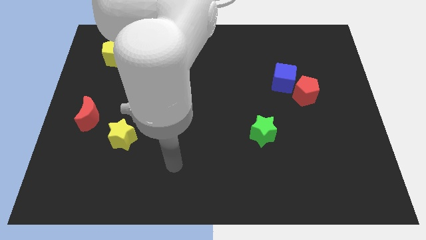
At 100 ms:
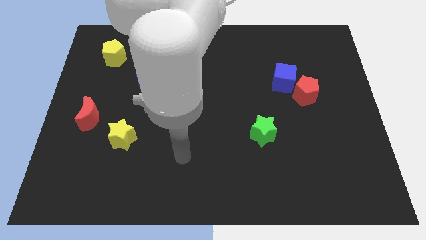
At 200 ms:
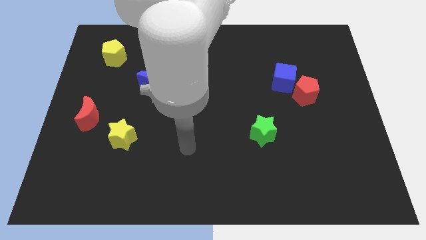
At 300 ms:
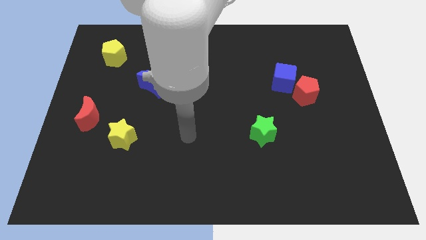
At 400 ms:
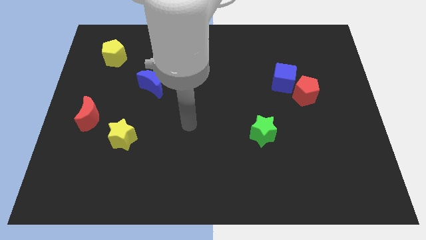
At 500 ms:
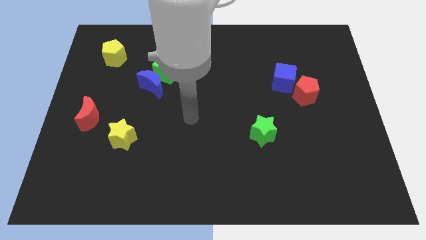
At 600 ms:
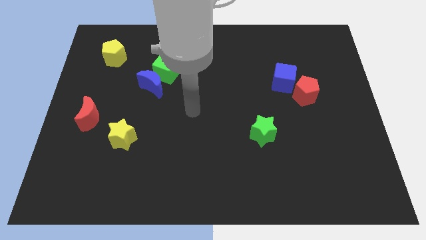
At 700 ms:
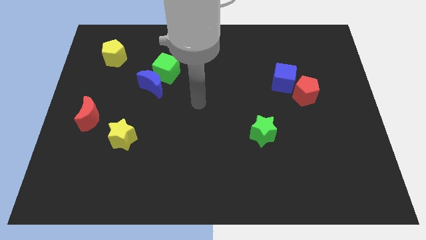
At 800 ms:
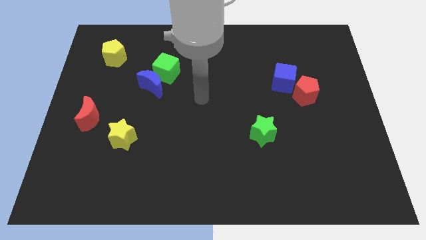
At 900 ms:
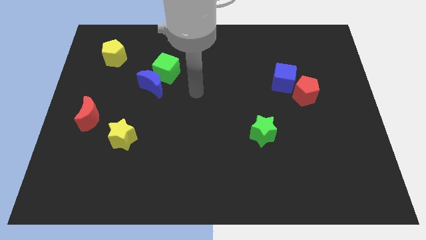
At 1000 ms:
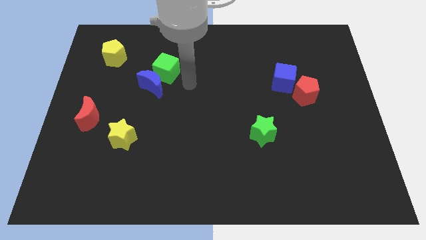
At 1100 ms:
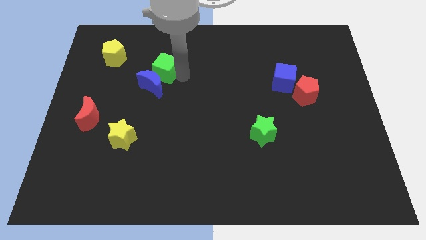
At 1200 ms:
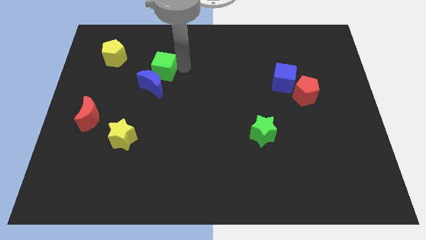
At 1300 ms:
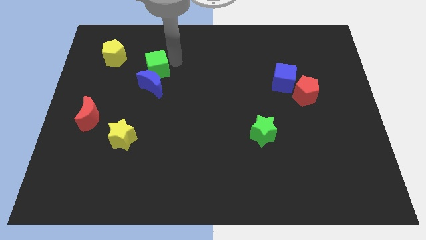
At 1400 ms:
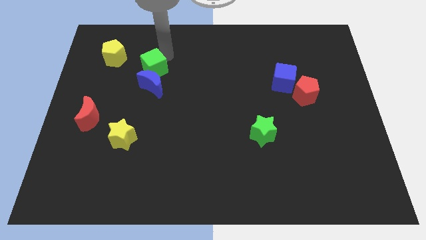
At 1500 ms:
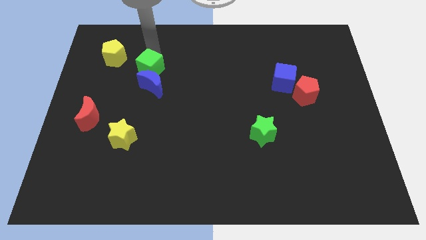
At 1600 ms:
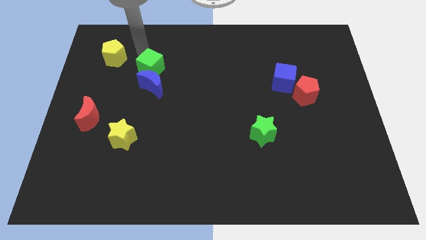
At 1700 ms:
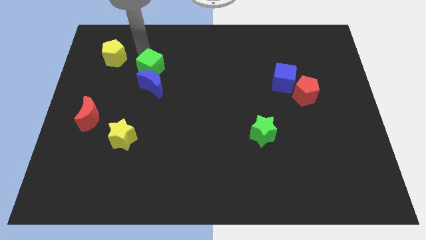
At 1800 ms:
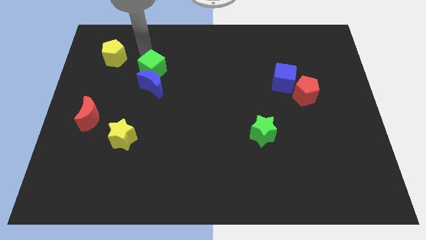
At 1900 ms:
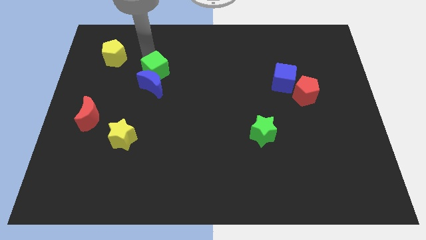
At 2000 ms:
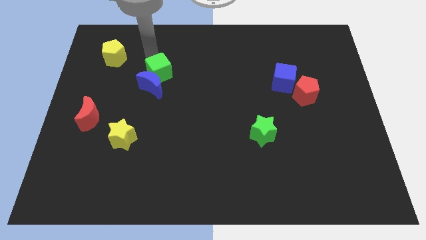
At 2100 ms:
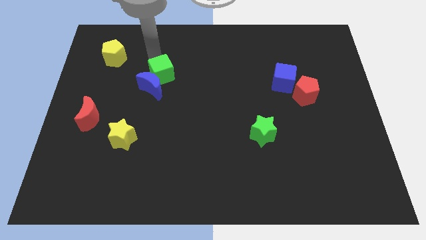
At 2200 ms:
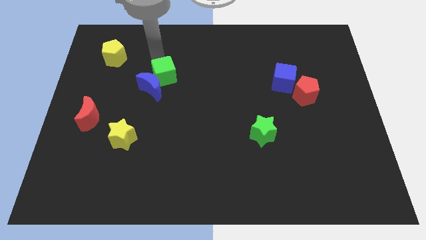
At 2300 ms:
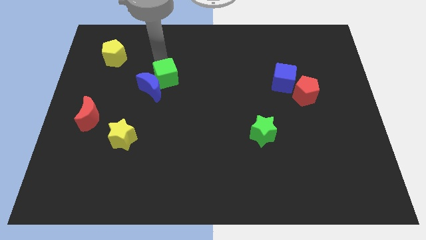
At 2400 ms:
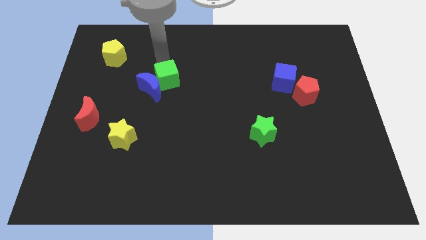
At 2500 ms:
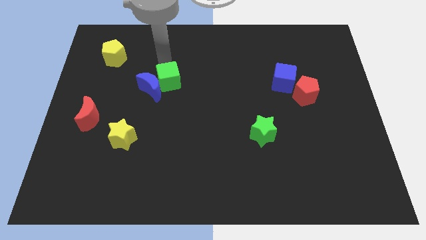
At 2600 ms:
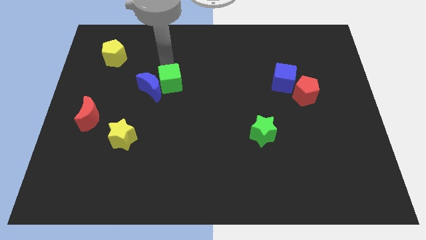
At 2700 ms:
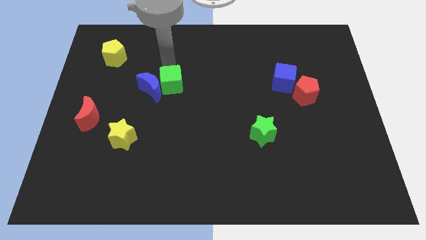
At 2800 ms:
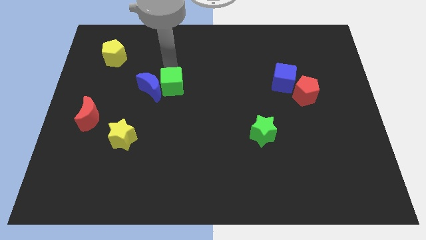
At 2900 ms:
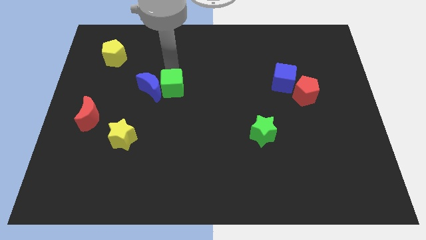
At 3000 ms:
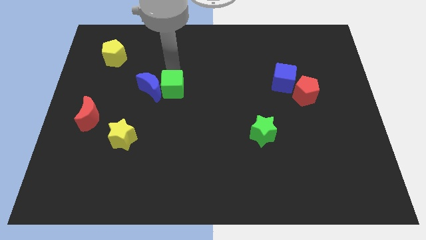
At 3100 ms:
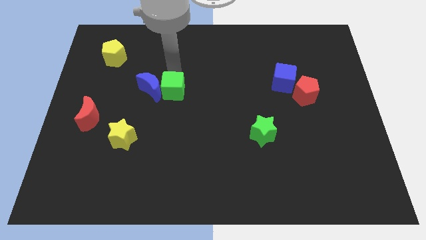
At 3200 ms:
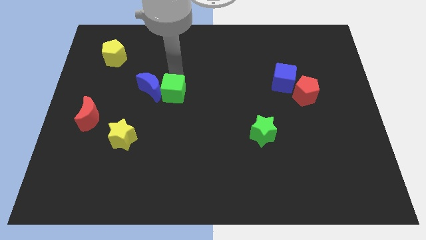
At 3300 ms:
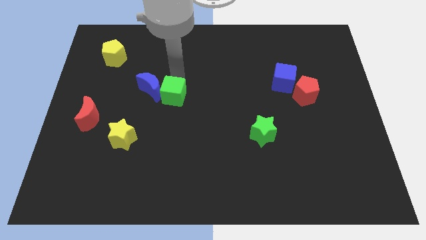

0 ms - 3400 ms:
push the green cube down somewhat

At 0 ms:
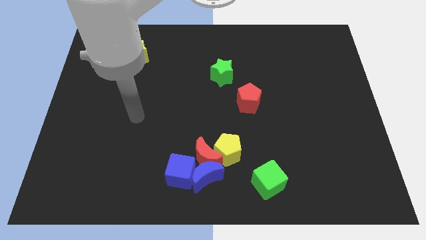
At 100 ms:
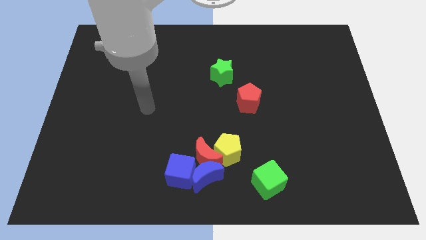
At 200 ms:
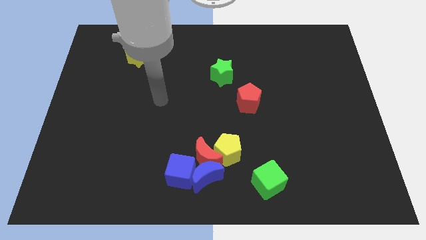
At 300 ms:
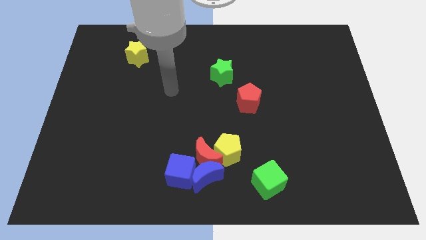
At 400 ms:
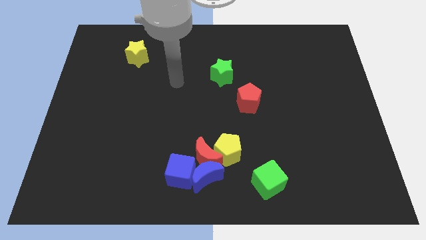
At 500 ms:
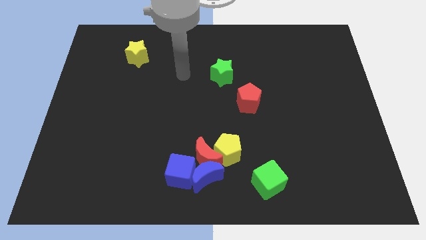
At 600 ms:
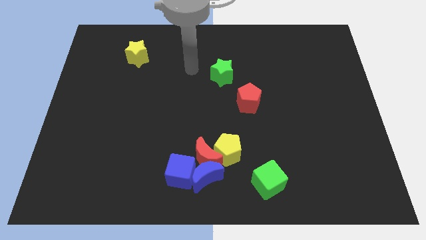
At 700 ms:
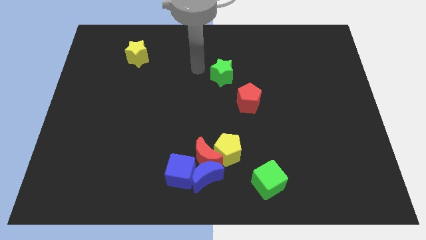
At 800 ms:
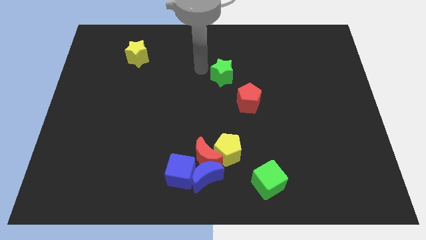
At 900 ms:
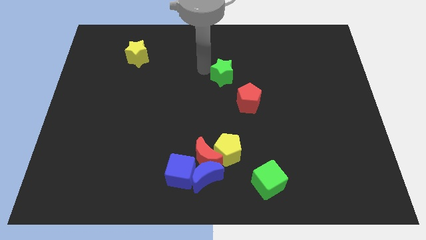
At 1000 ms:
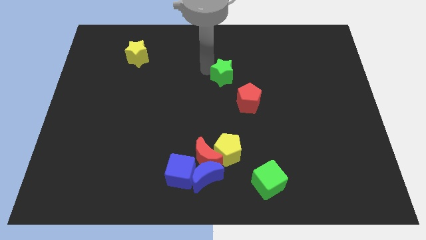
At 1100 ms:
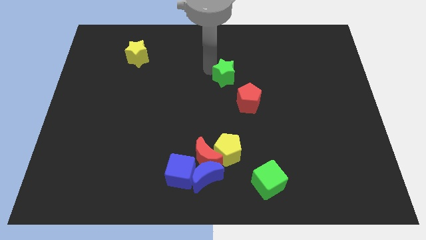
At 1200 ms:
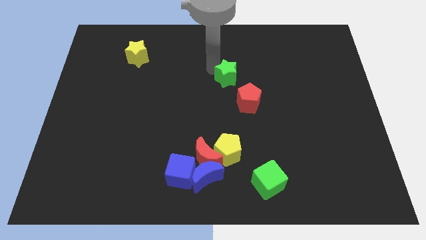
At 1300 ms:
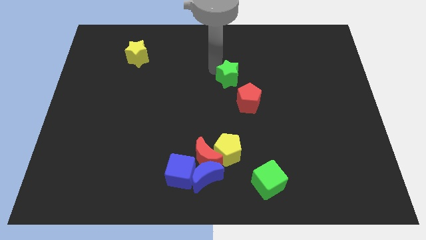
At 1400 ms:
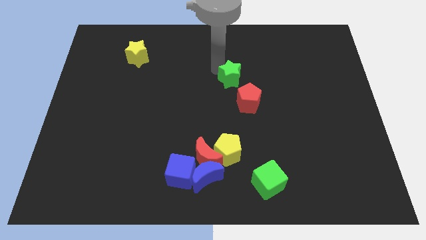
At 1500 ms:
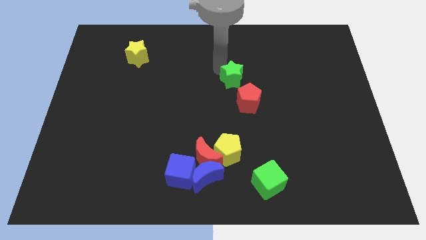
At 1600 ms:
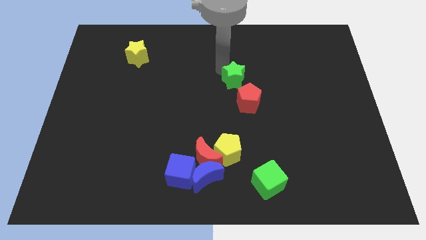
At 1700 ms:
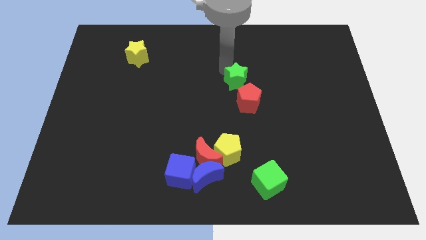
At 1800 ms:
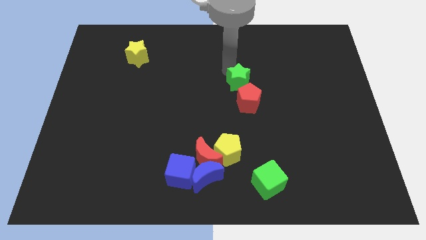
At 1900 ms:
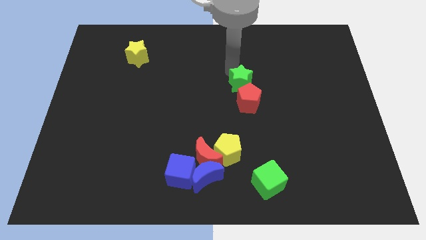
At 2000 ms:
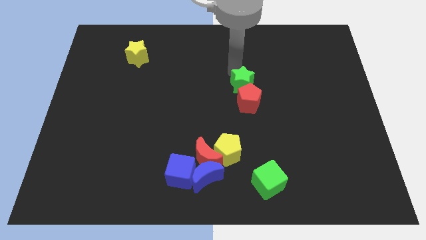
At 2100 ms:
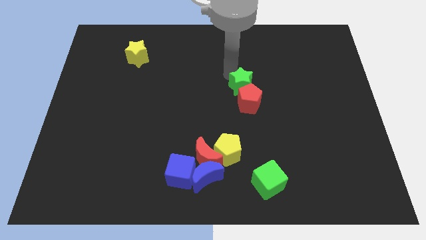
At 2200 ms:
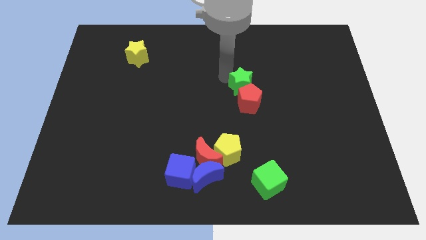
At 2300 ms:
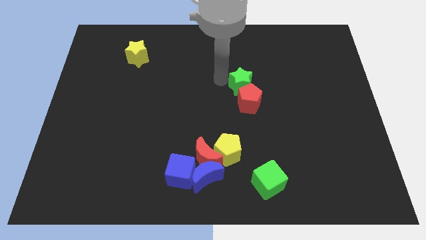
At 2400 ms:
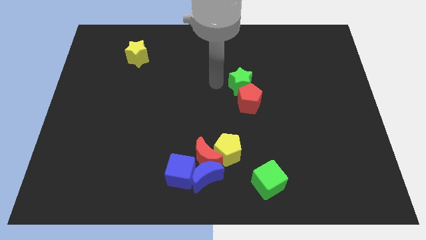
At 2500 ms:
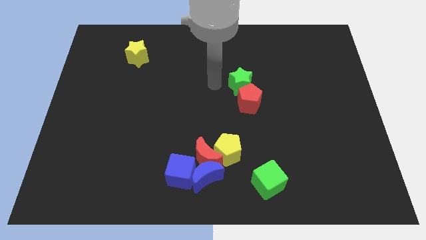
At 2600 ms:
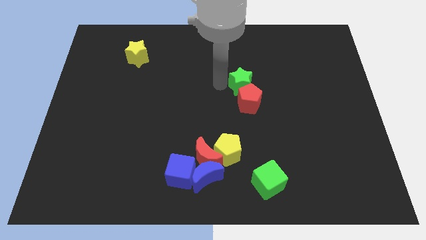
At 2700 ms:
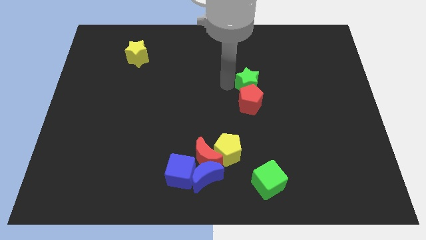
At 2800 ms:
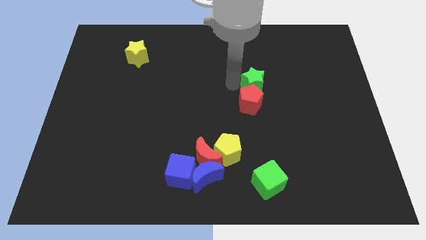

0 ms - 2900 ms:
push the green star a little diagonally down and right

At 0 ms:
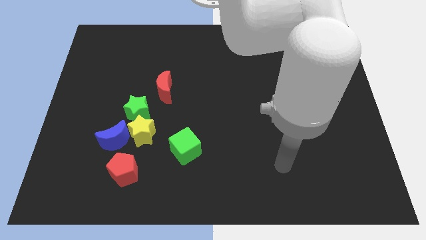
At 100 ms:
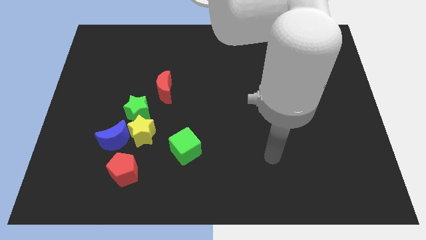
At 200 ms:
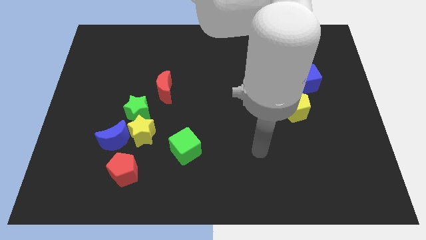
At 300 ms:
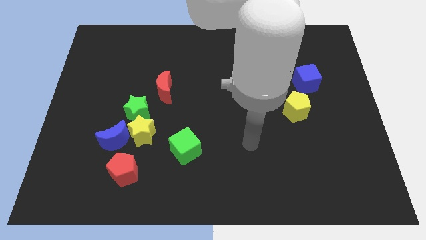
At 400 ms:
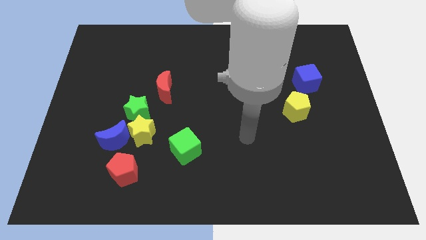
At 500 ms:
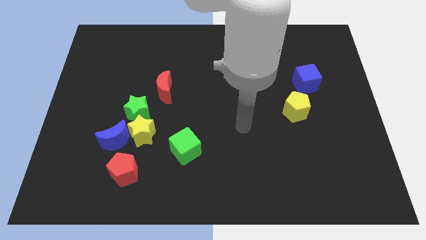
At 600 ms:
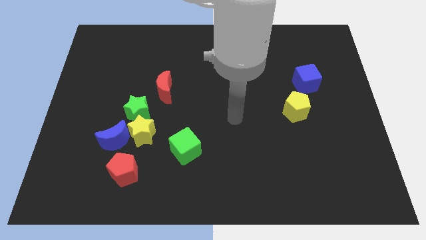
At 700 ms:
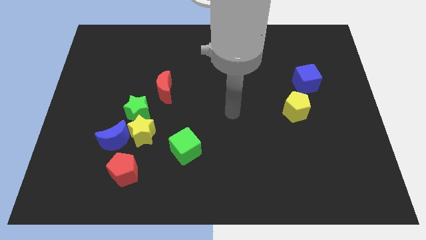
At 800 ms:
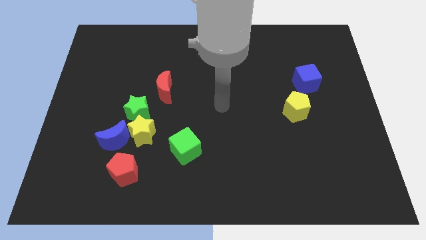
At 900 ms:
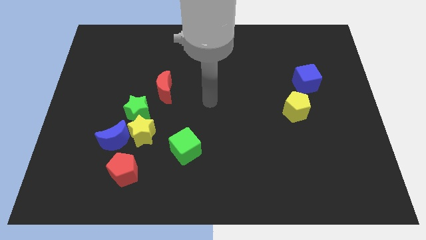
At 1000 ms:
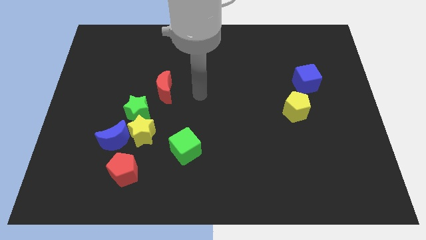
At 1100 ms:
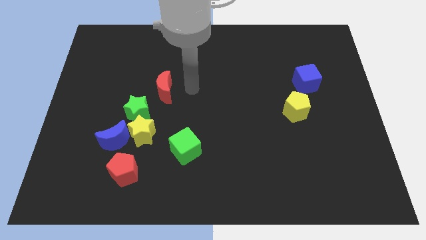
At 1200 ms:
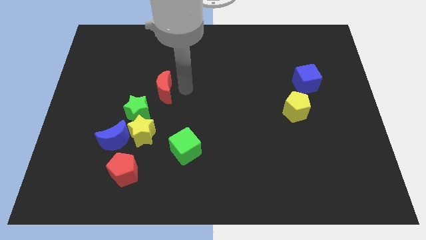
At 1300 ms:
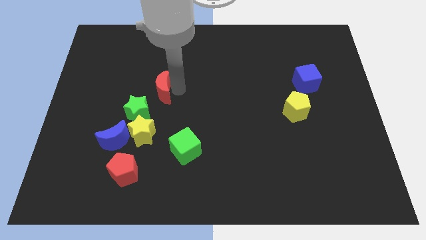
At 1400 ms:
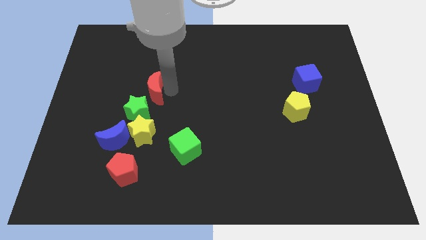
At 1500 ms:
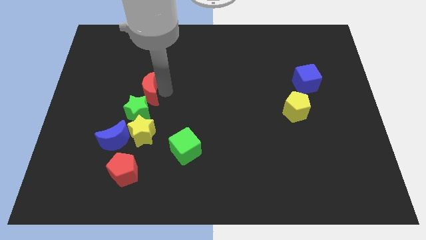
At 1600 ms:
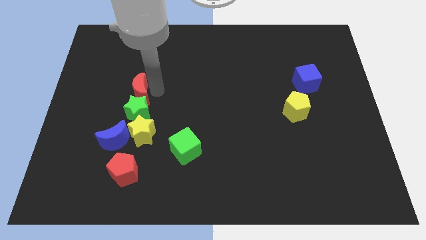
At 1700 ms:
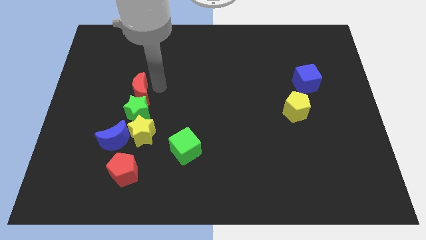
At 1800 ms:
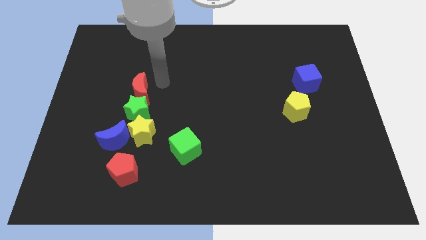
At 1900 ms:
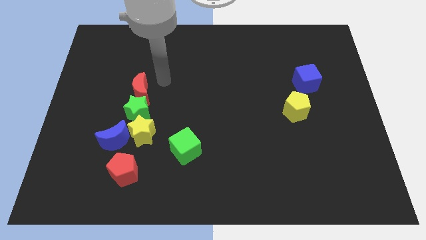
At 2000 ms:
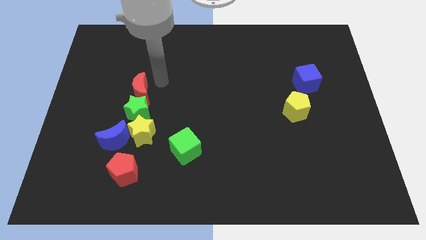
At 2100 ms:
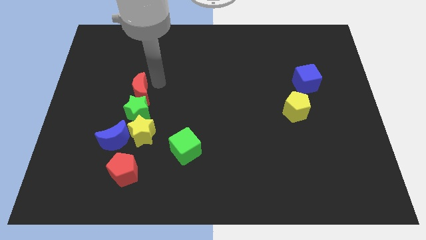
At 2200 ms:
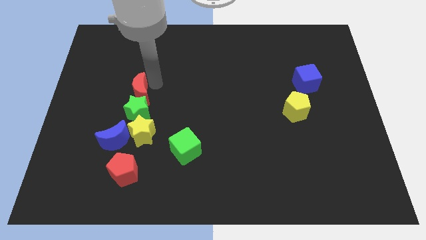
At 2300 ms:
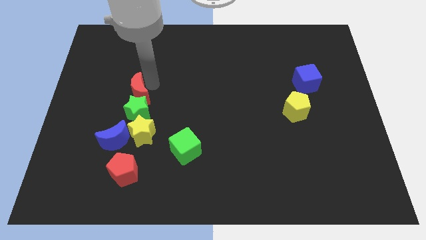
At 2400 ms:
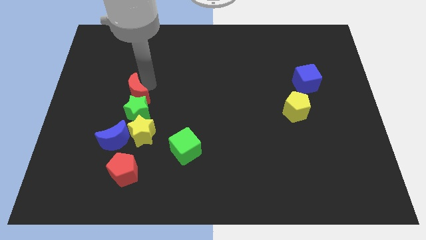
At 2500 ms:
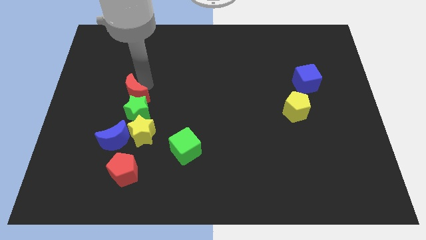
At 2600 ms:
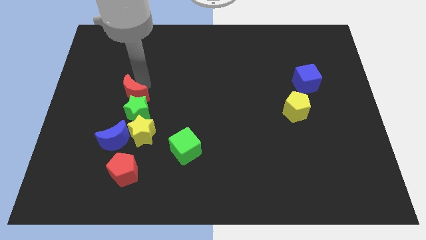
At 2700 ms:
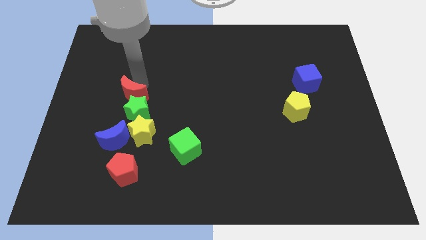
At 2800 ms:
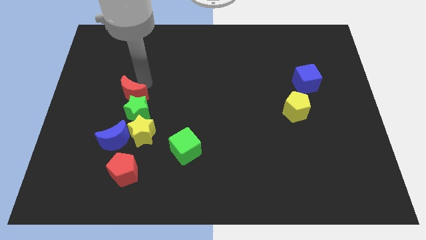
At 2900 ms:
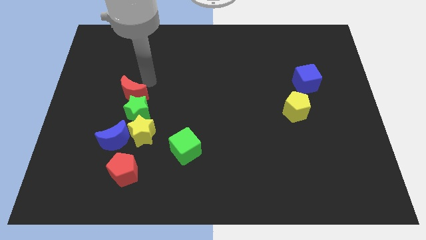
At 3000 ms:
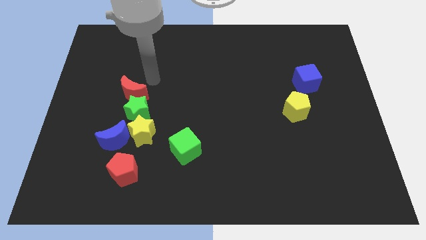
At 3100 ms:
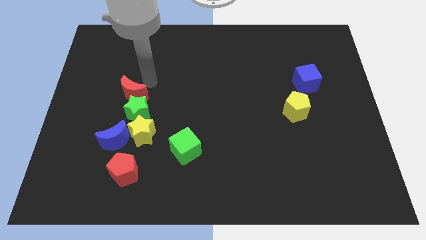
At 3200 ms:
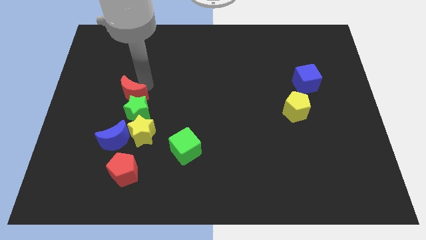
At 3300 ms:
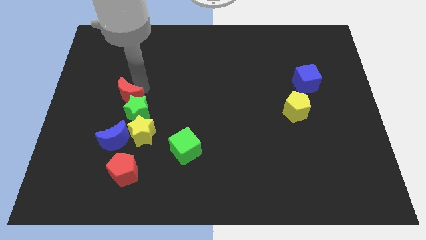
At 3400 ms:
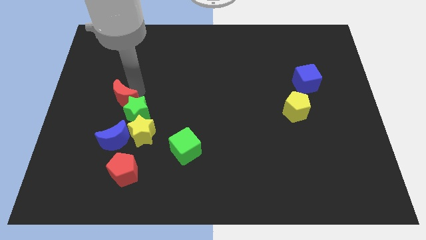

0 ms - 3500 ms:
slightly push the red moon down and then left
